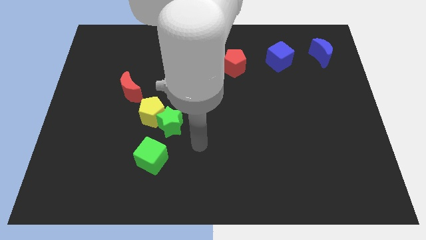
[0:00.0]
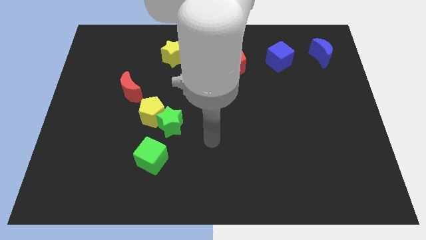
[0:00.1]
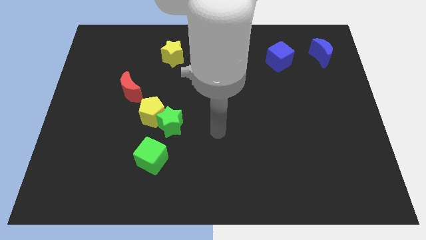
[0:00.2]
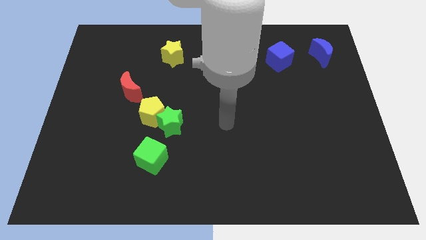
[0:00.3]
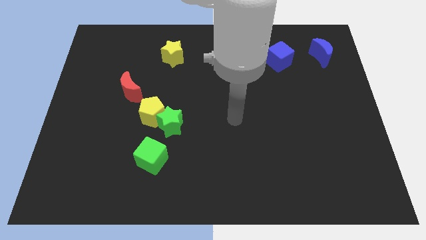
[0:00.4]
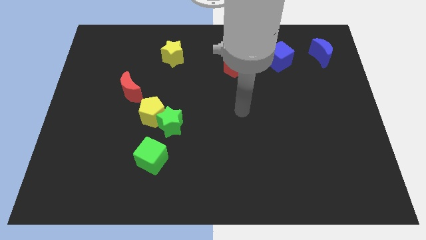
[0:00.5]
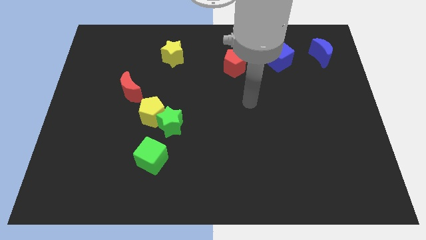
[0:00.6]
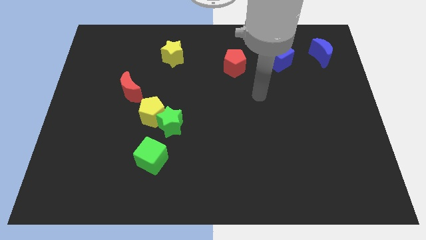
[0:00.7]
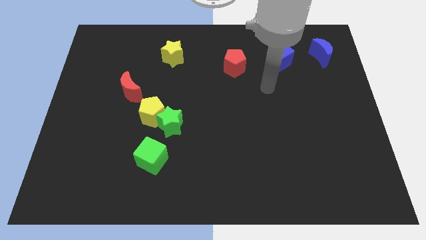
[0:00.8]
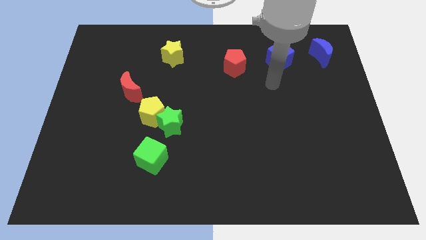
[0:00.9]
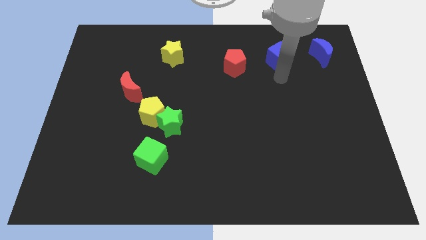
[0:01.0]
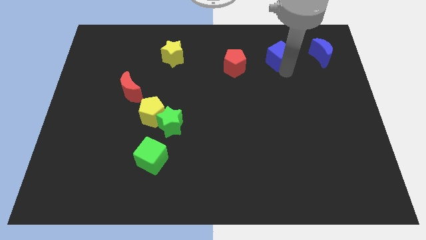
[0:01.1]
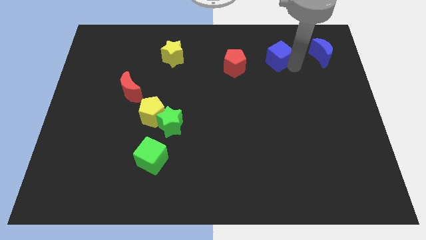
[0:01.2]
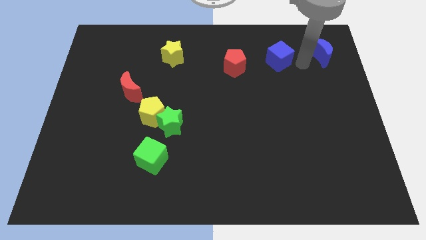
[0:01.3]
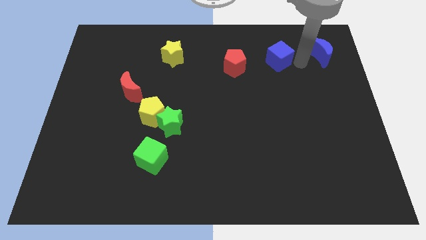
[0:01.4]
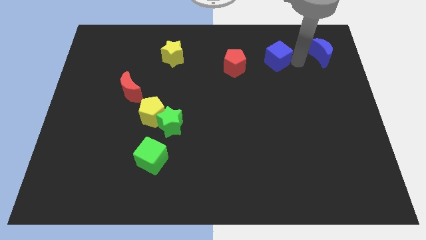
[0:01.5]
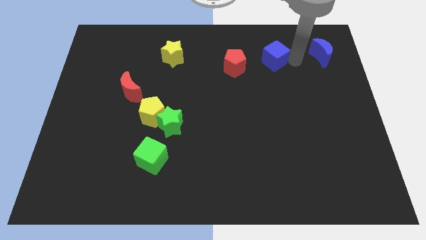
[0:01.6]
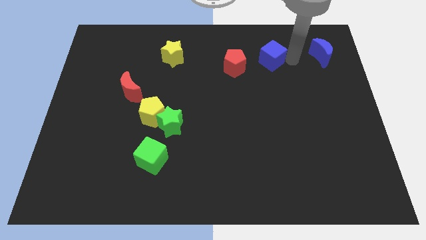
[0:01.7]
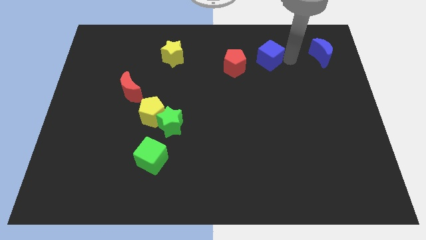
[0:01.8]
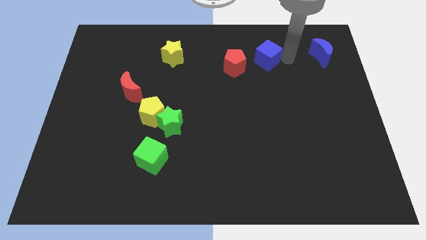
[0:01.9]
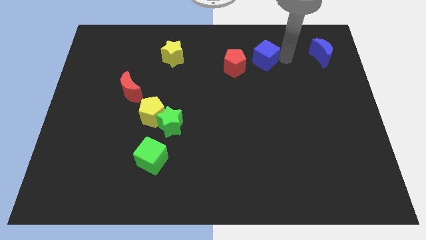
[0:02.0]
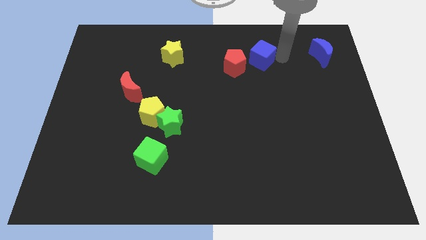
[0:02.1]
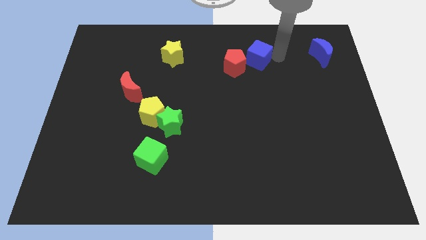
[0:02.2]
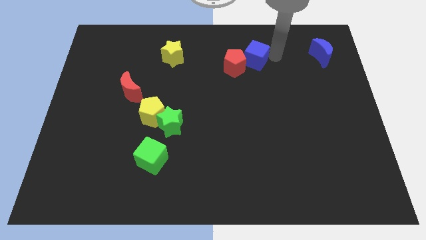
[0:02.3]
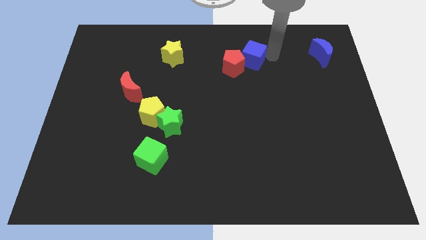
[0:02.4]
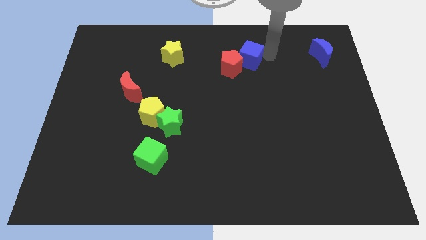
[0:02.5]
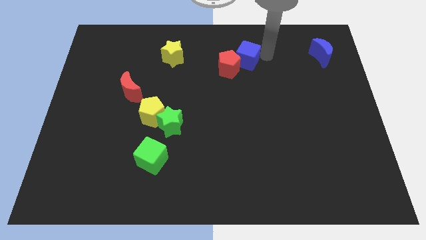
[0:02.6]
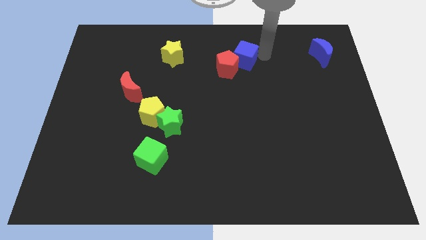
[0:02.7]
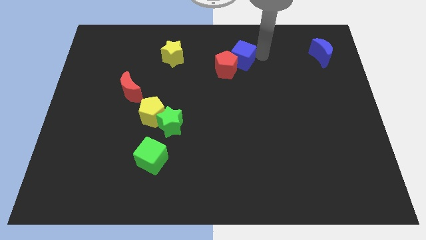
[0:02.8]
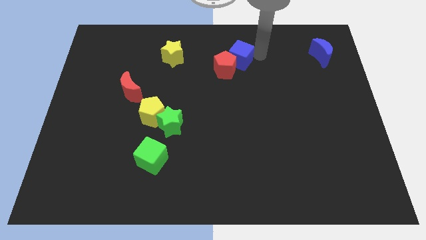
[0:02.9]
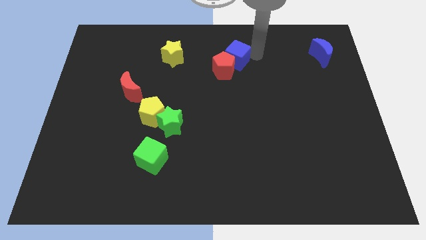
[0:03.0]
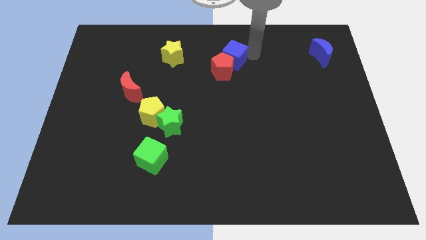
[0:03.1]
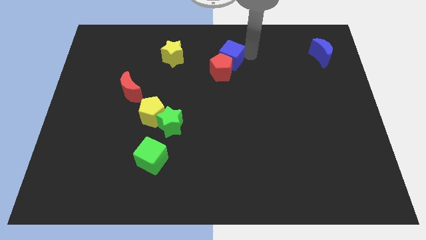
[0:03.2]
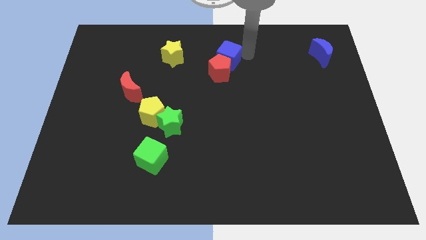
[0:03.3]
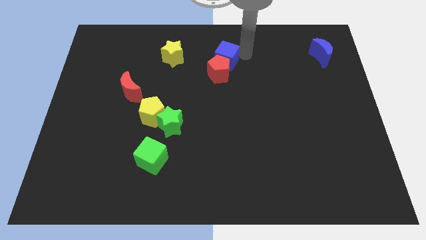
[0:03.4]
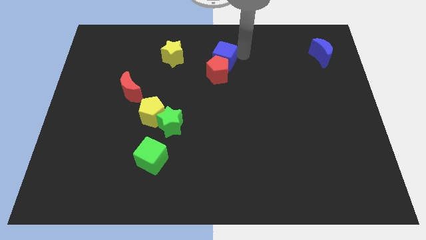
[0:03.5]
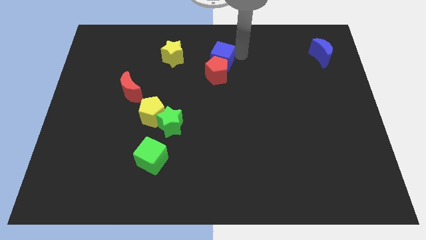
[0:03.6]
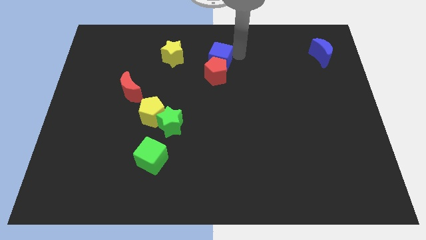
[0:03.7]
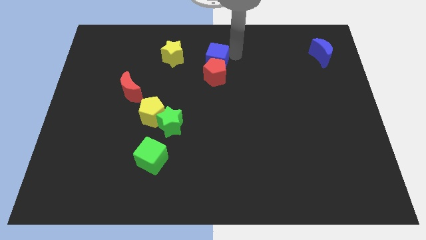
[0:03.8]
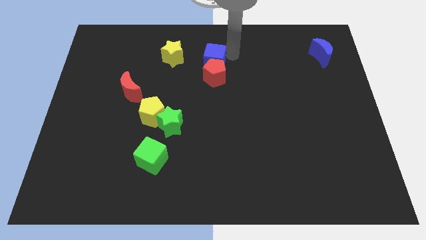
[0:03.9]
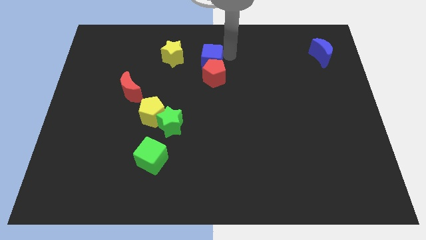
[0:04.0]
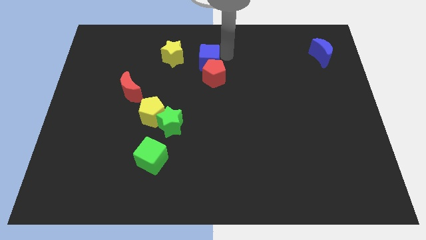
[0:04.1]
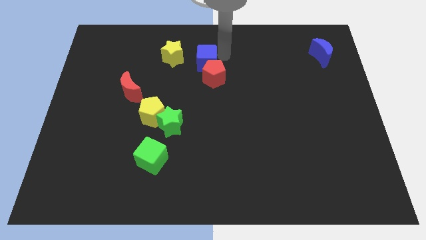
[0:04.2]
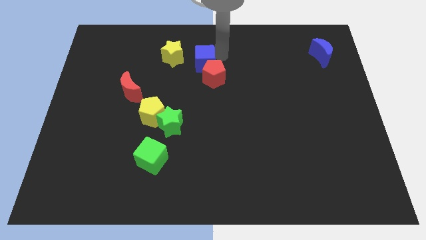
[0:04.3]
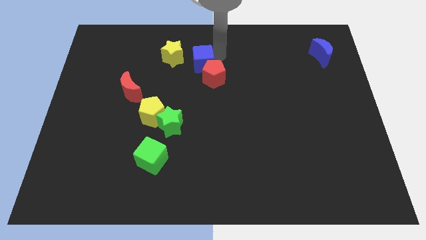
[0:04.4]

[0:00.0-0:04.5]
move the blue cube to the left

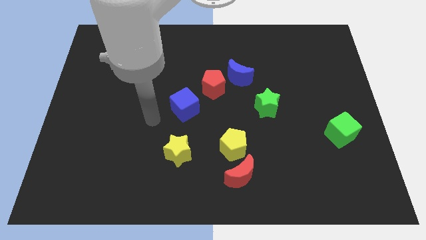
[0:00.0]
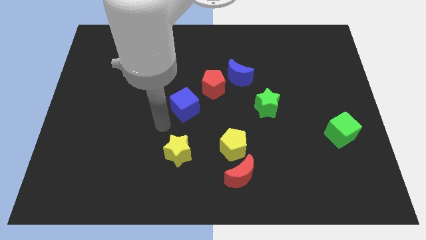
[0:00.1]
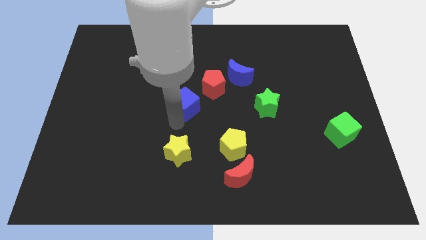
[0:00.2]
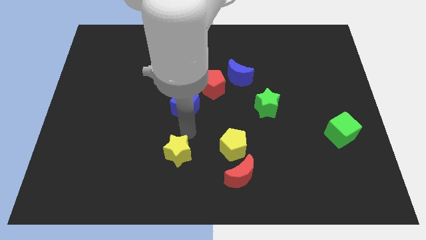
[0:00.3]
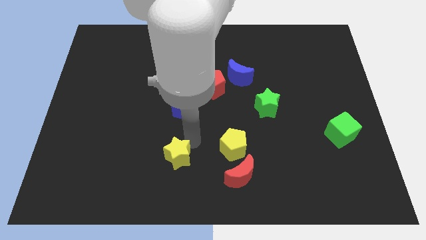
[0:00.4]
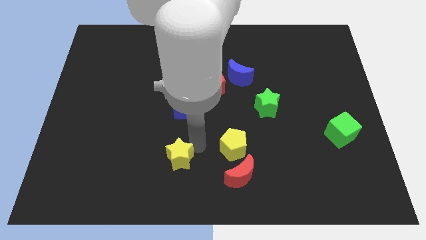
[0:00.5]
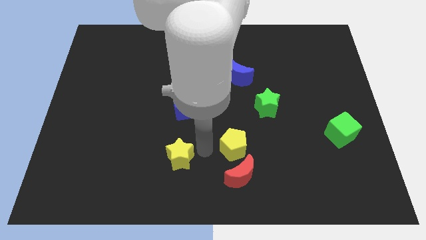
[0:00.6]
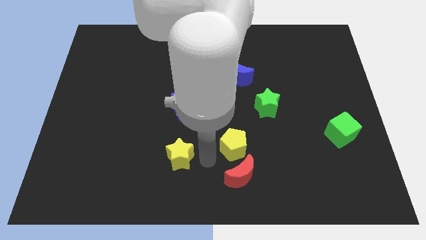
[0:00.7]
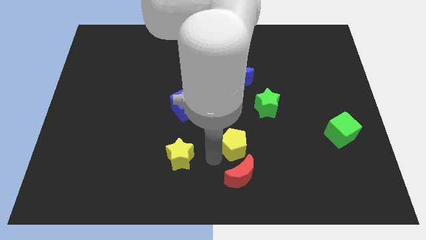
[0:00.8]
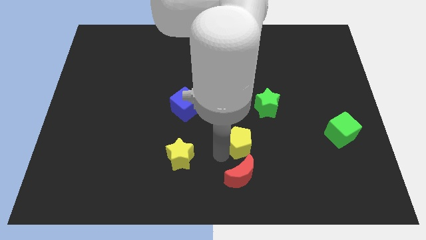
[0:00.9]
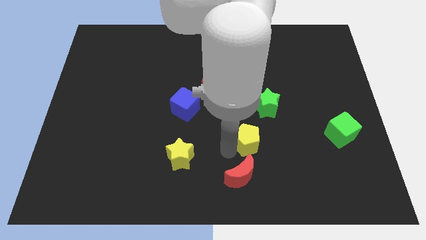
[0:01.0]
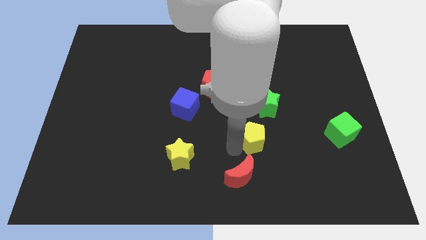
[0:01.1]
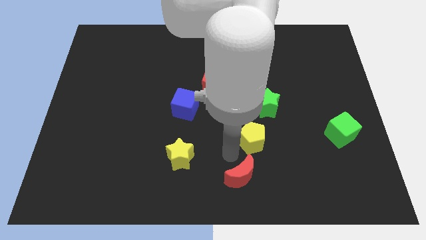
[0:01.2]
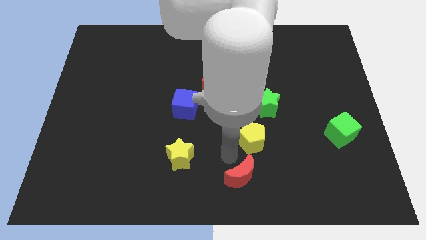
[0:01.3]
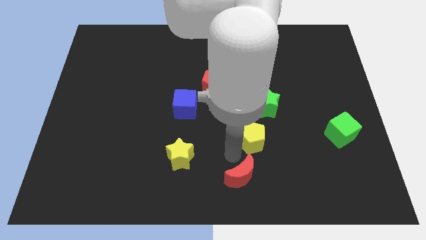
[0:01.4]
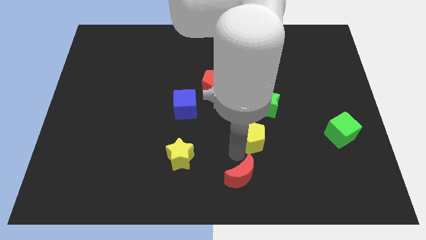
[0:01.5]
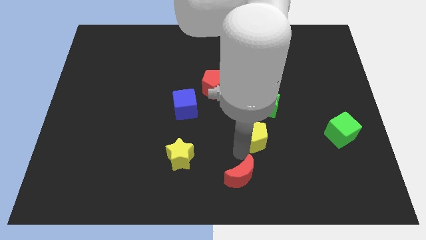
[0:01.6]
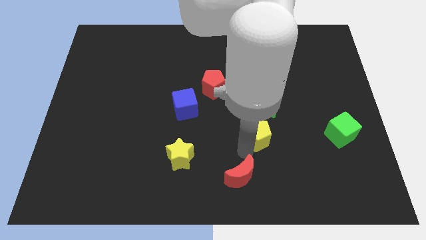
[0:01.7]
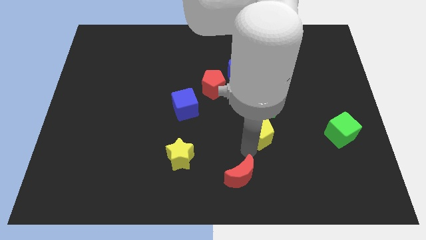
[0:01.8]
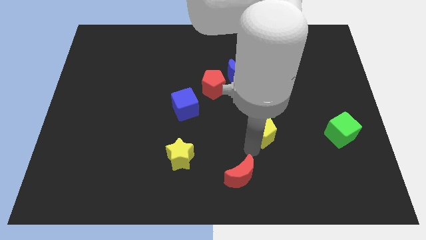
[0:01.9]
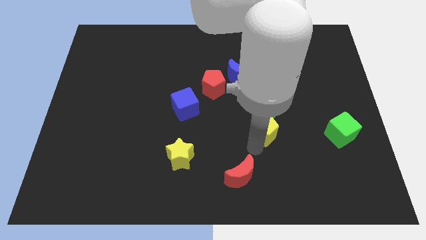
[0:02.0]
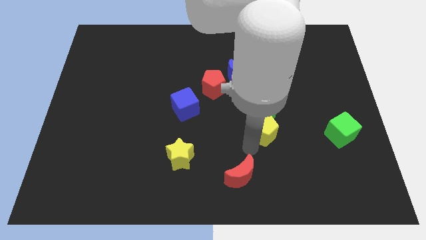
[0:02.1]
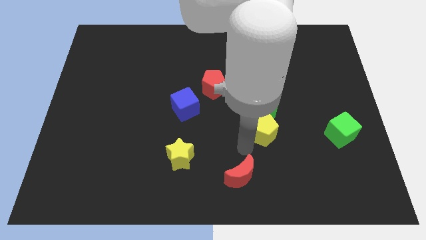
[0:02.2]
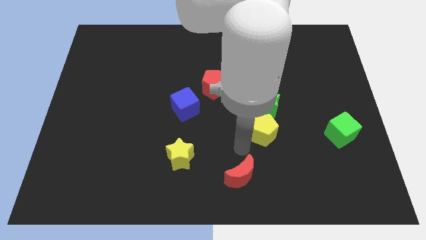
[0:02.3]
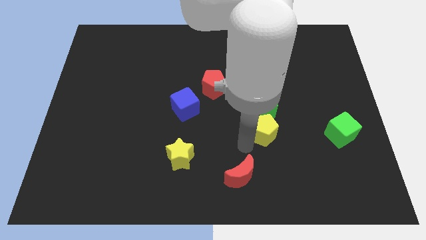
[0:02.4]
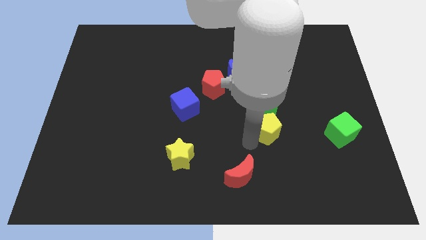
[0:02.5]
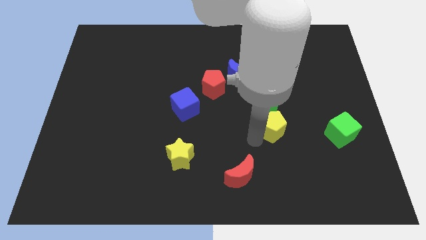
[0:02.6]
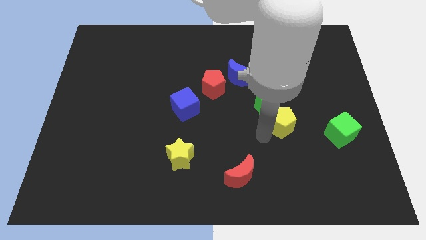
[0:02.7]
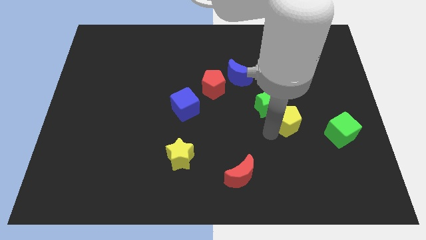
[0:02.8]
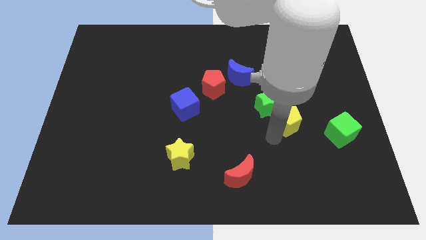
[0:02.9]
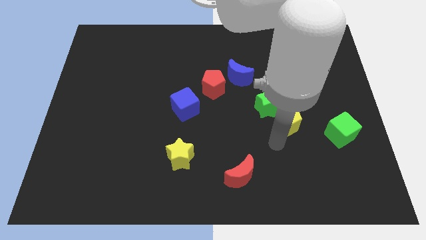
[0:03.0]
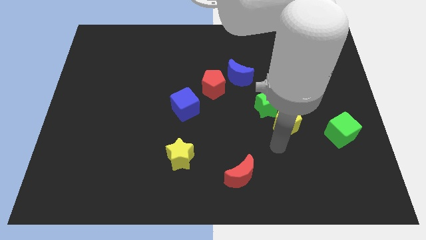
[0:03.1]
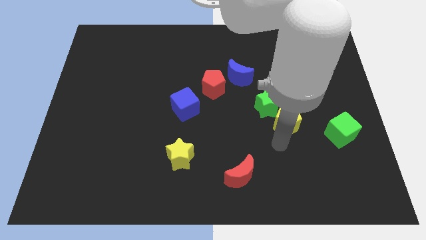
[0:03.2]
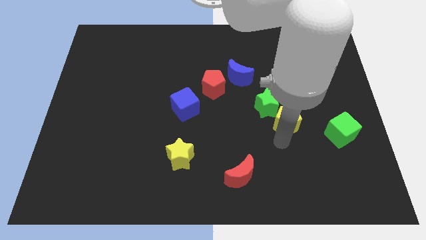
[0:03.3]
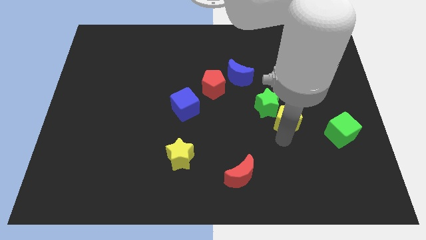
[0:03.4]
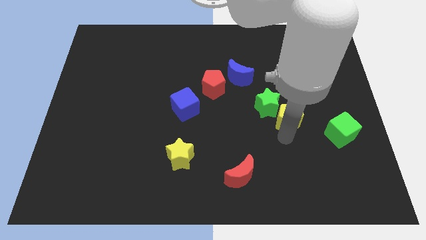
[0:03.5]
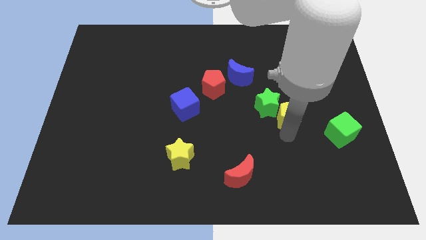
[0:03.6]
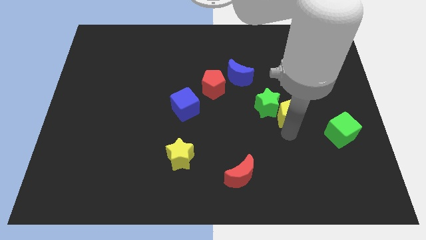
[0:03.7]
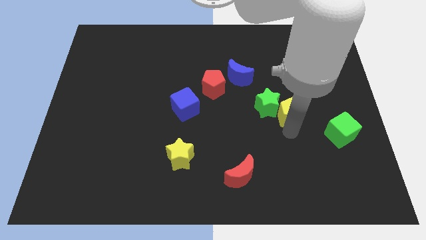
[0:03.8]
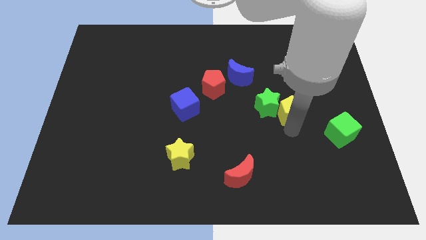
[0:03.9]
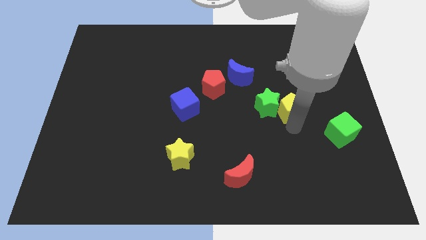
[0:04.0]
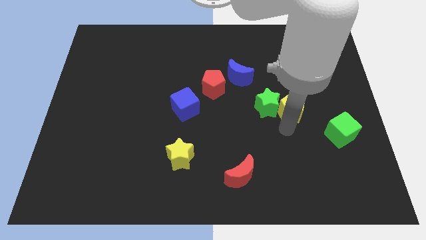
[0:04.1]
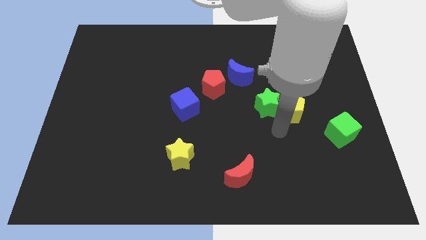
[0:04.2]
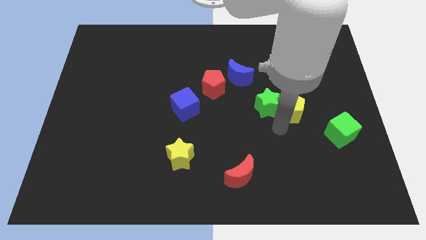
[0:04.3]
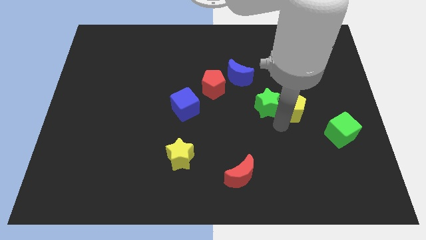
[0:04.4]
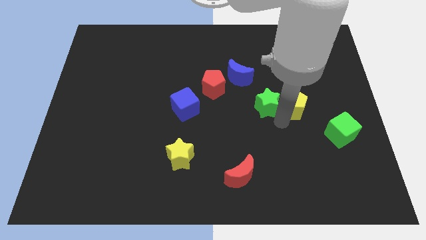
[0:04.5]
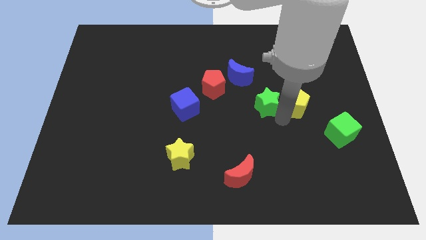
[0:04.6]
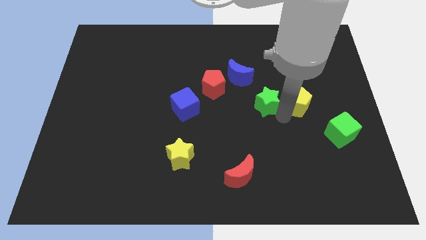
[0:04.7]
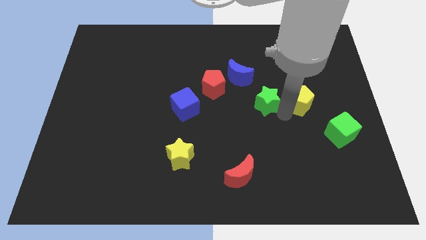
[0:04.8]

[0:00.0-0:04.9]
push the yellow pentagon upwards and to the right
